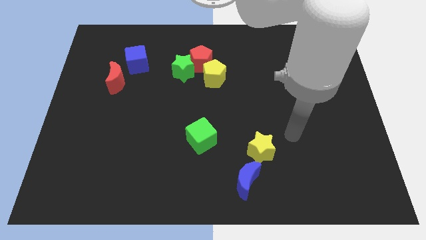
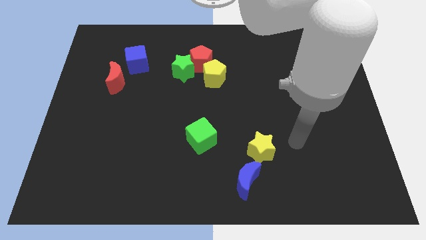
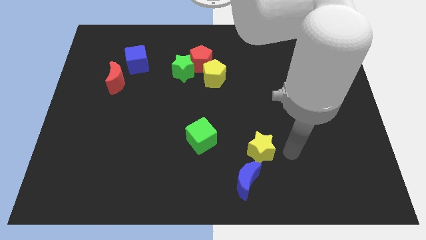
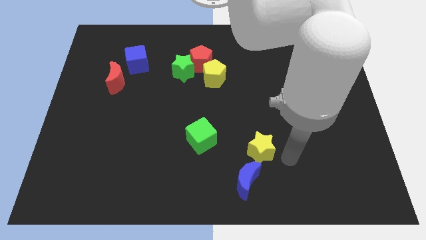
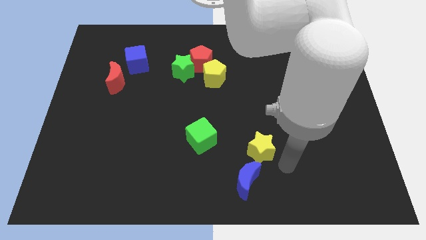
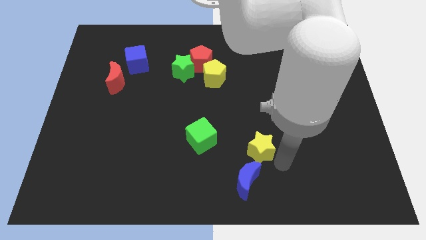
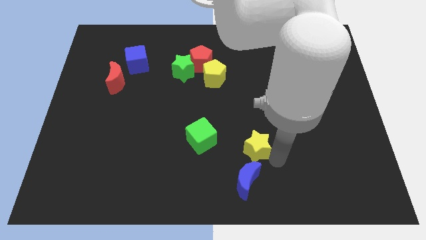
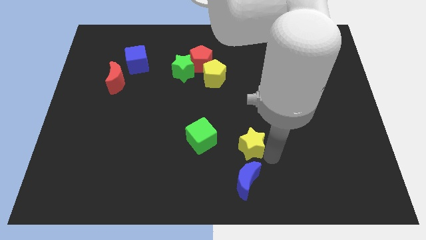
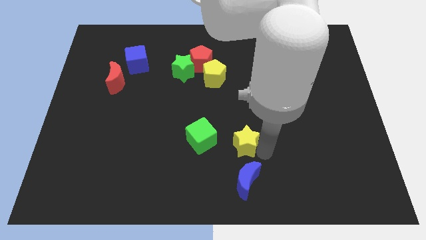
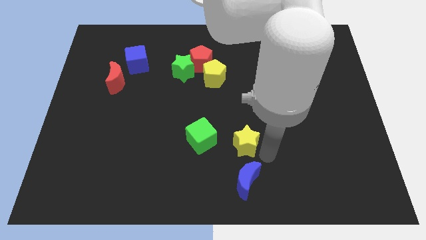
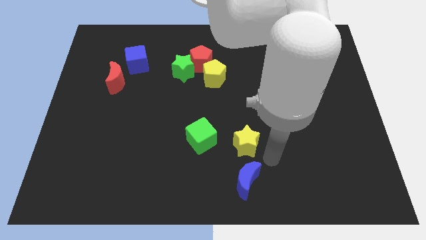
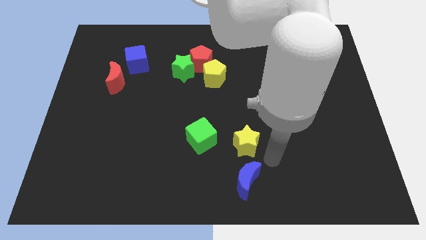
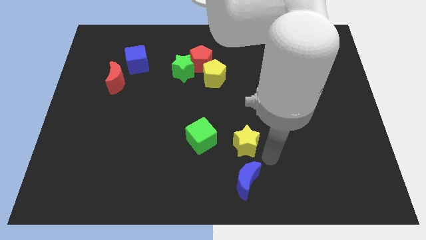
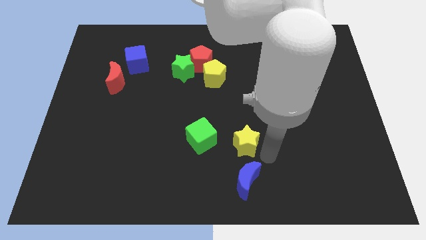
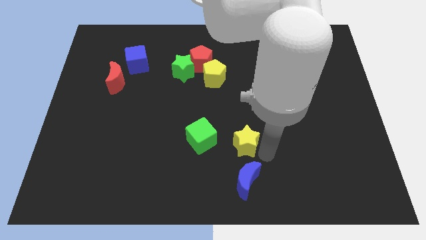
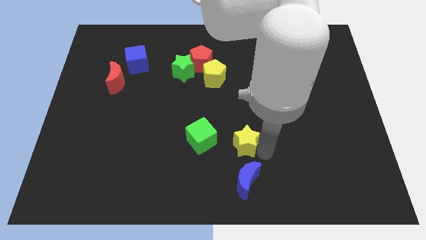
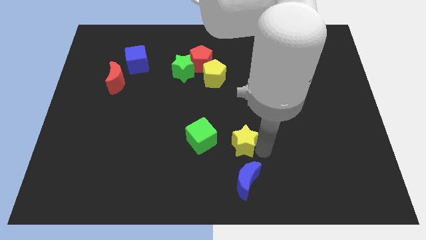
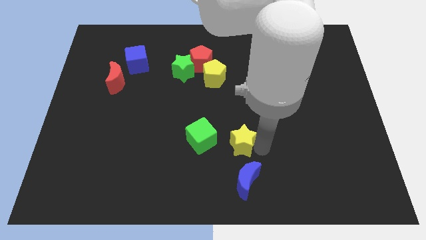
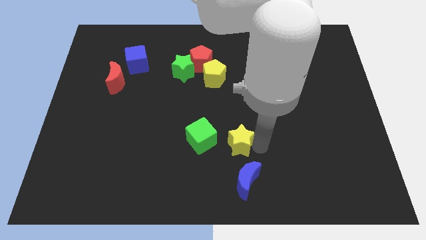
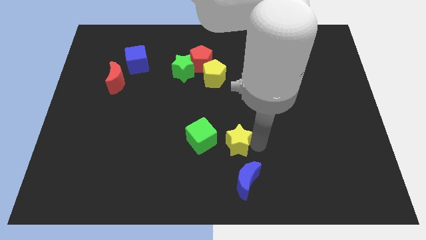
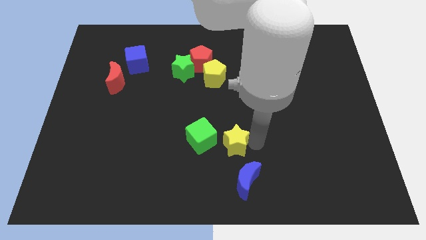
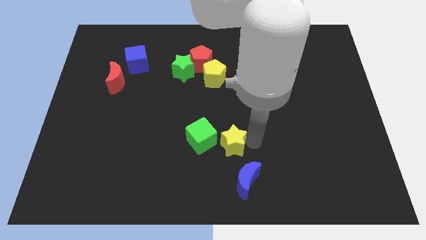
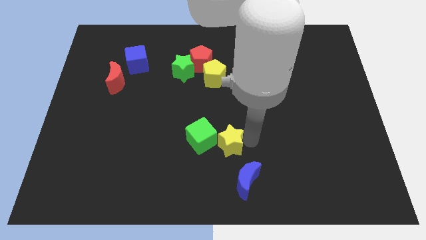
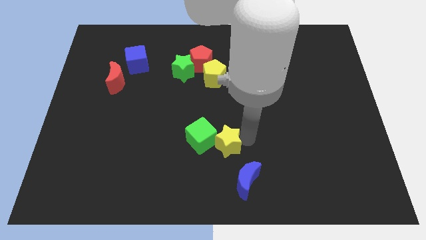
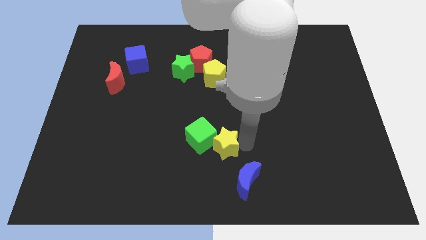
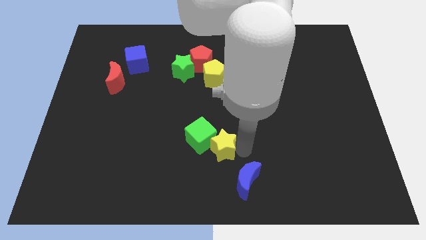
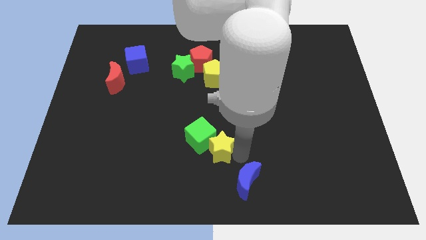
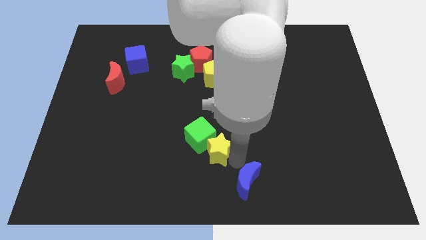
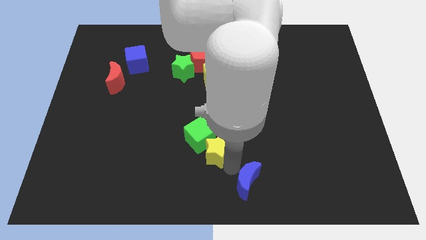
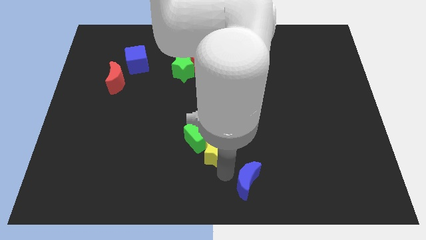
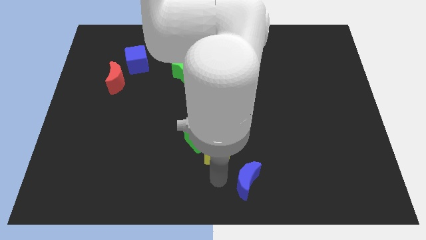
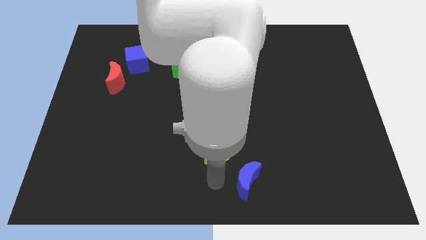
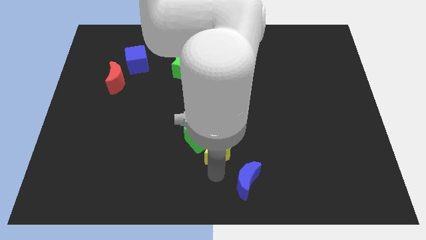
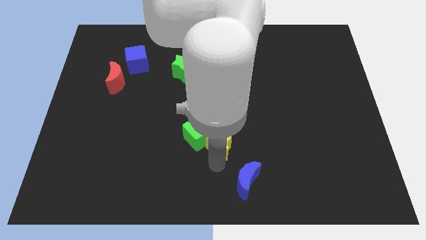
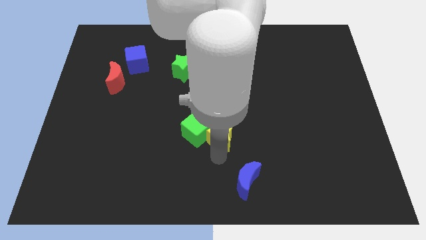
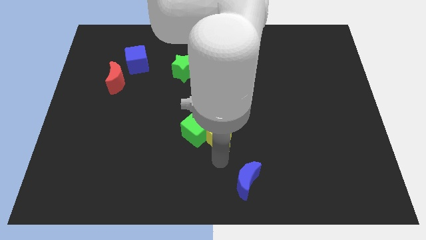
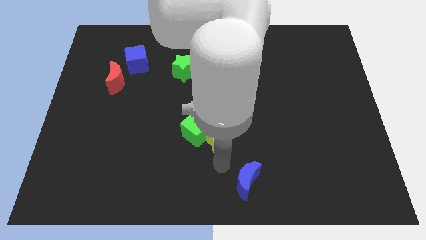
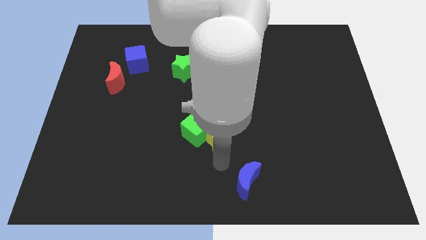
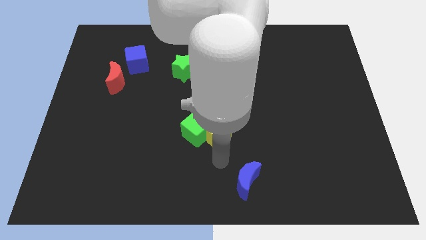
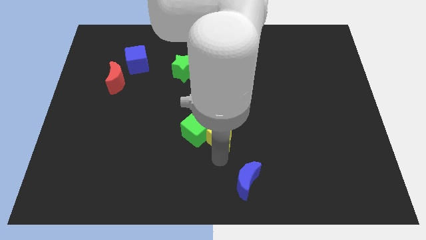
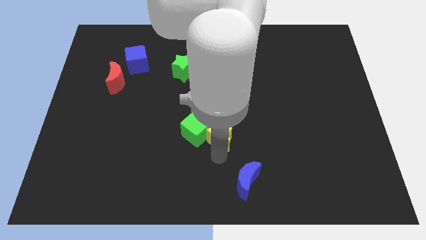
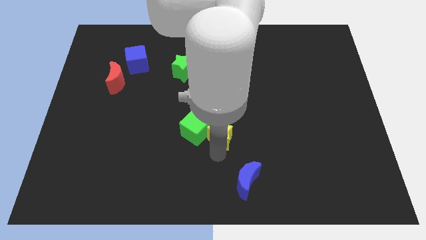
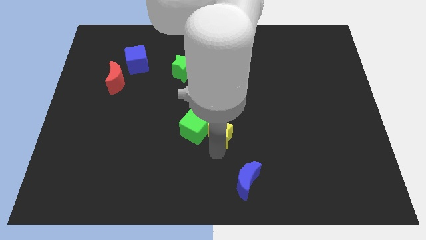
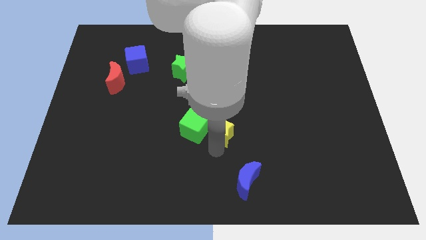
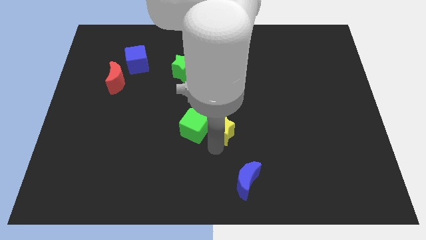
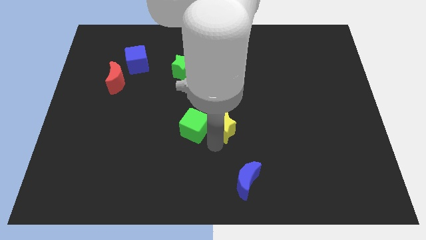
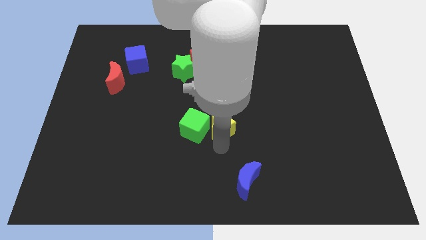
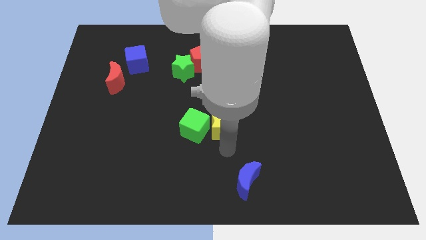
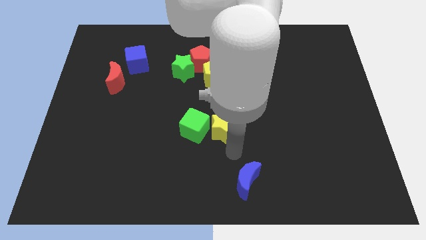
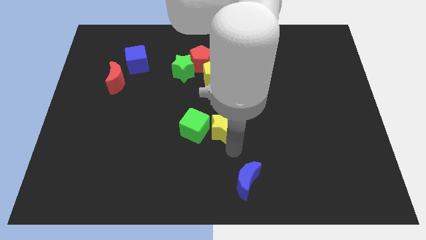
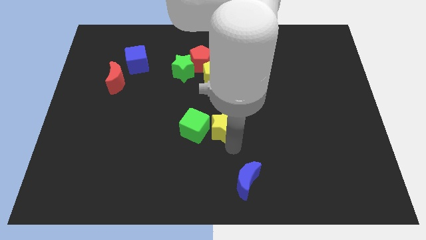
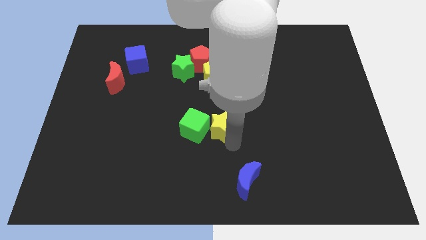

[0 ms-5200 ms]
move the yellow star to the bottom of the yellow pentagon

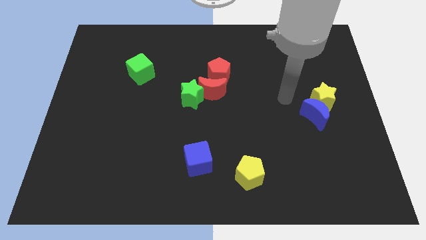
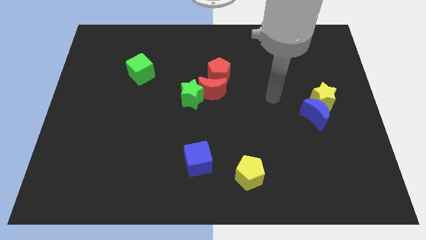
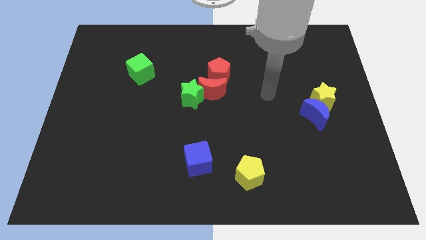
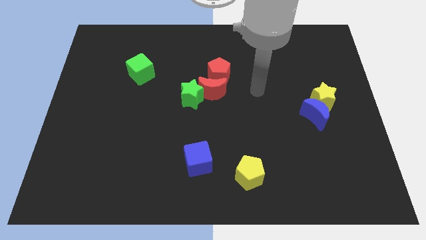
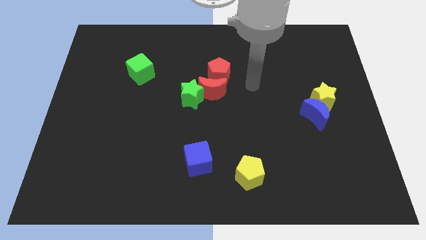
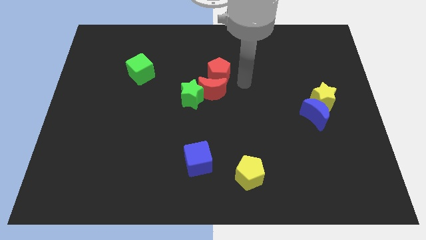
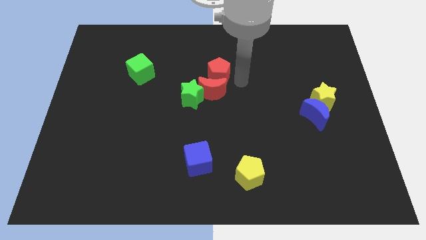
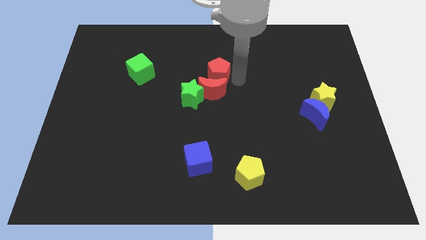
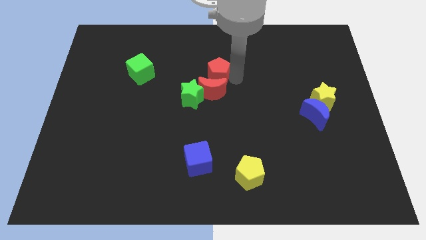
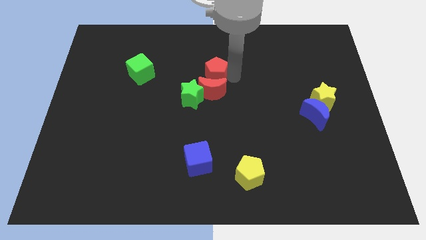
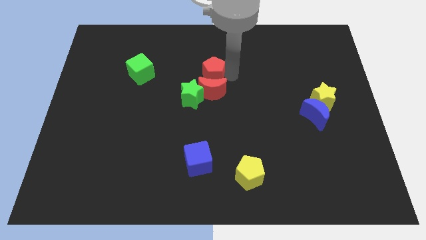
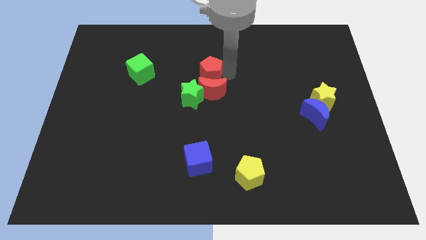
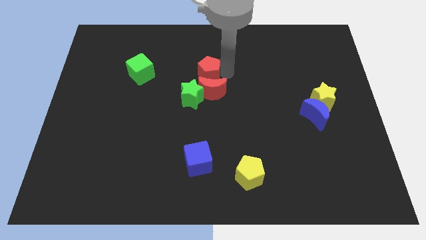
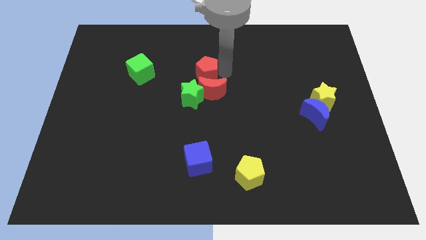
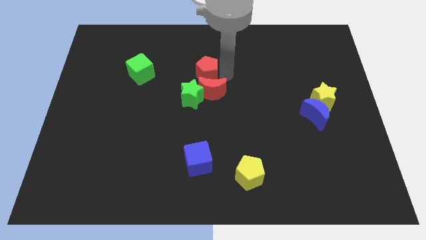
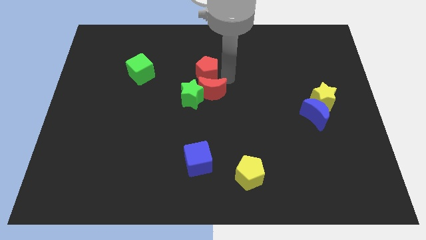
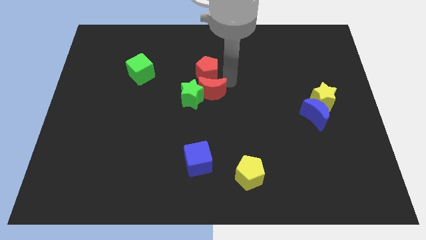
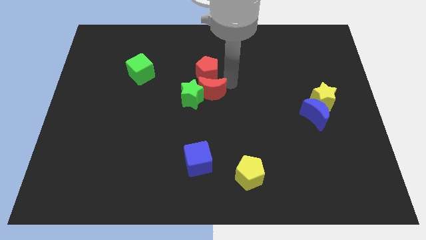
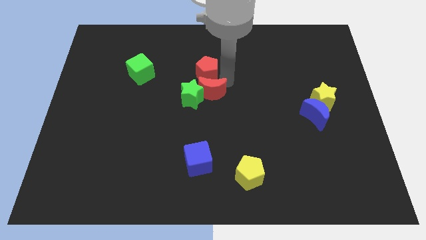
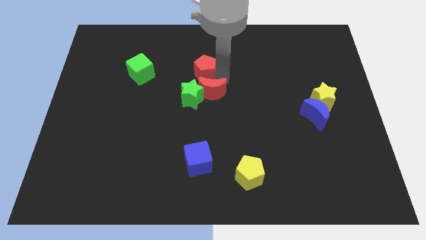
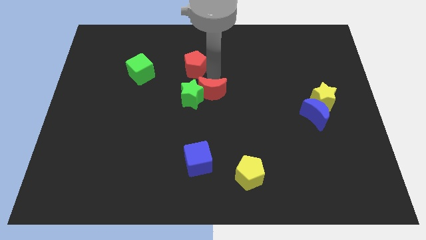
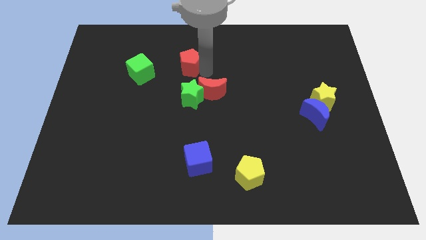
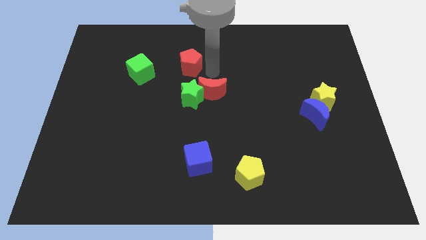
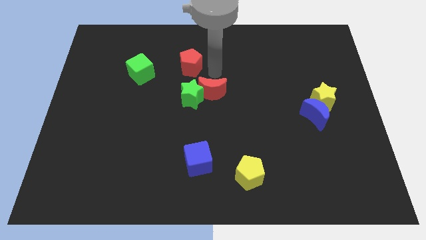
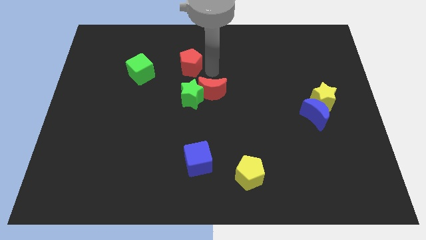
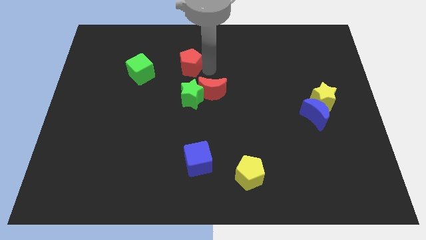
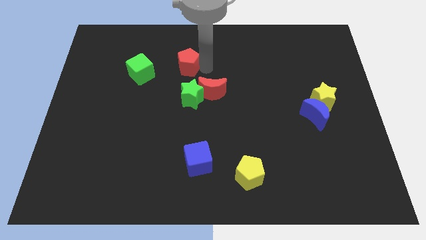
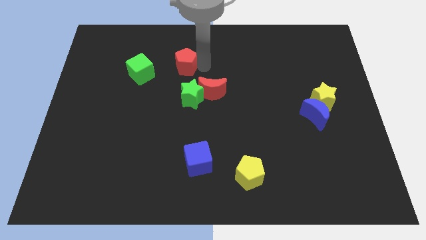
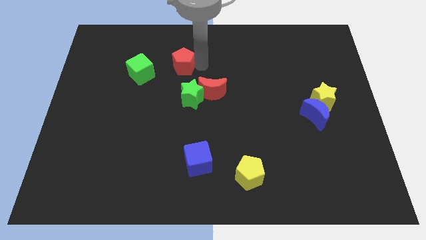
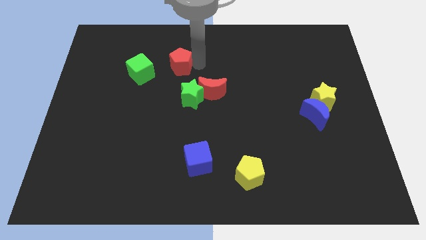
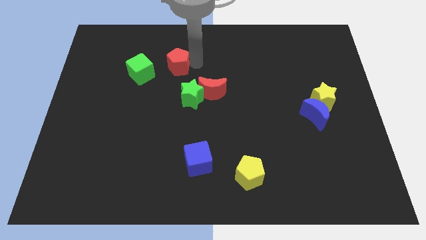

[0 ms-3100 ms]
put the red pentagon to the top right side of the green cube
